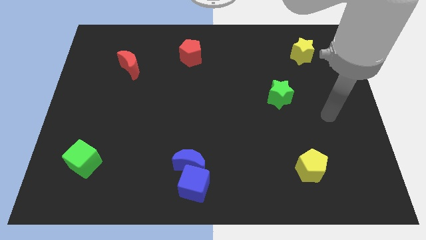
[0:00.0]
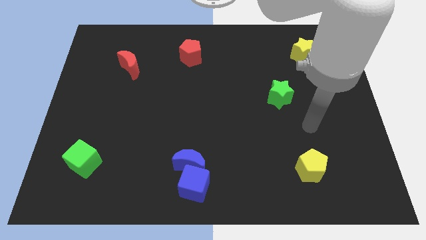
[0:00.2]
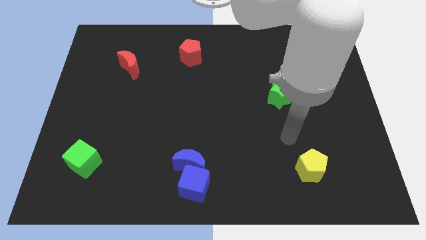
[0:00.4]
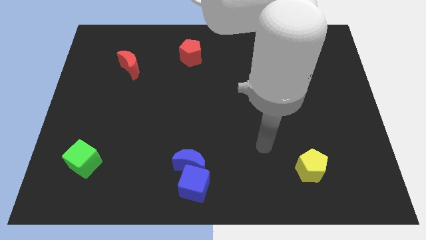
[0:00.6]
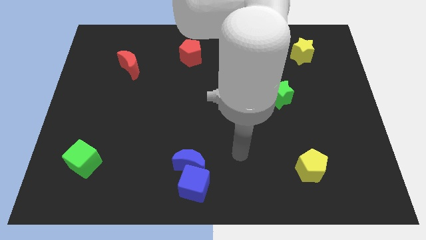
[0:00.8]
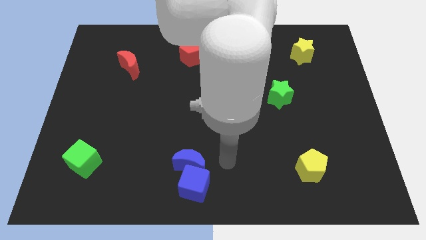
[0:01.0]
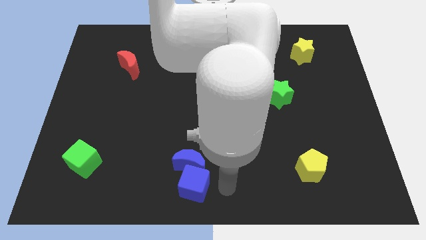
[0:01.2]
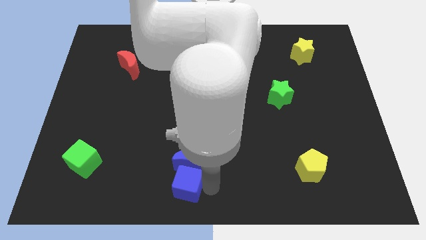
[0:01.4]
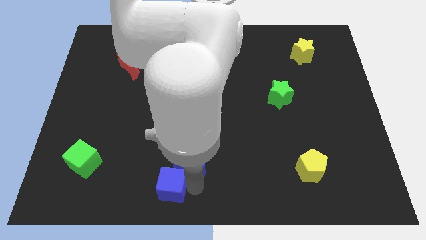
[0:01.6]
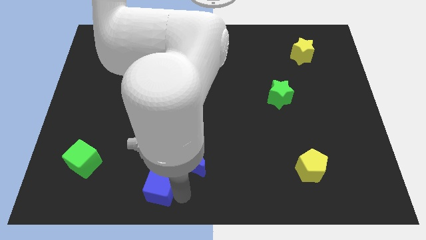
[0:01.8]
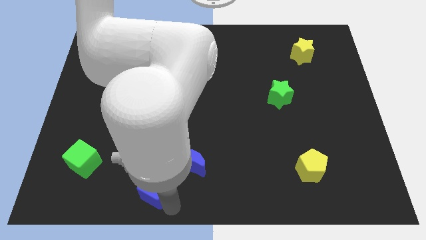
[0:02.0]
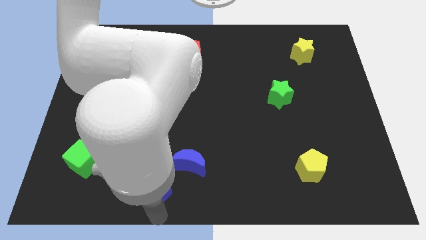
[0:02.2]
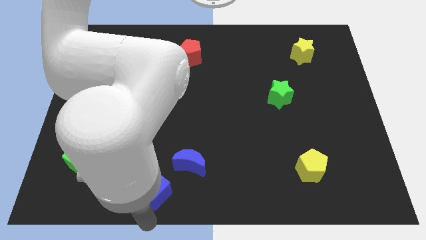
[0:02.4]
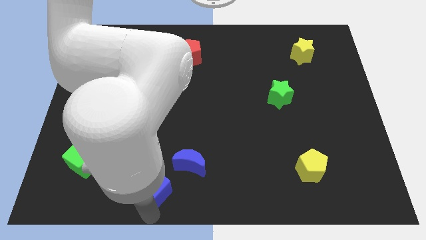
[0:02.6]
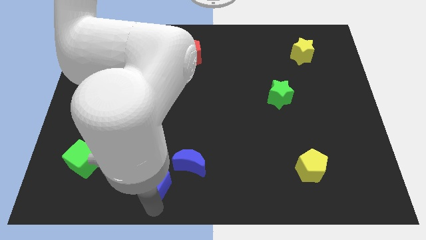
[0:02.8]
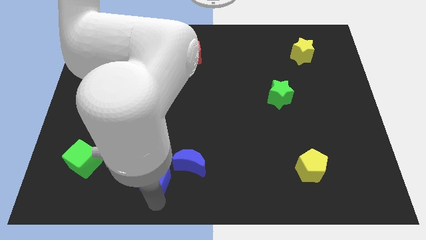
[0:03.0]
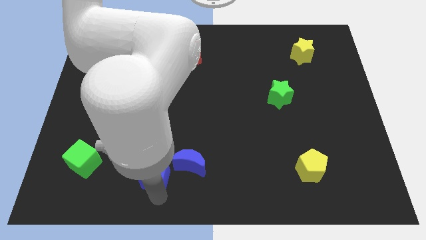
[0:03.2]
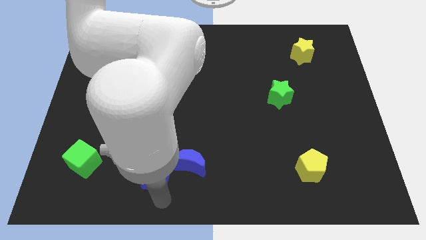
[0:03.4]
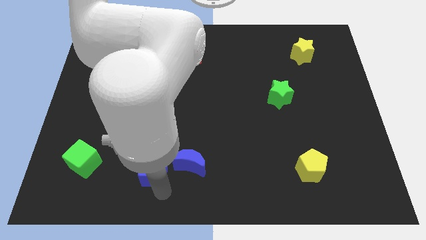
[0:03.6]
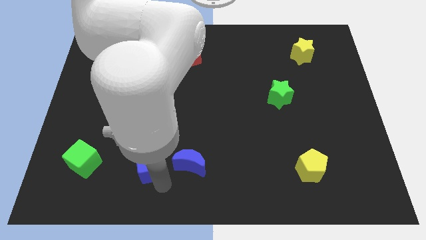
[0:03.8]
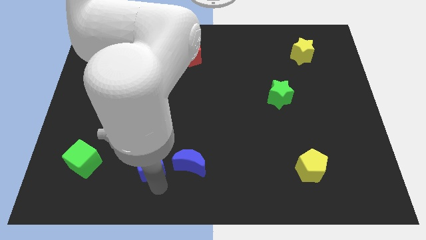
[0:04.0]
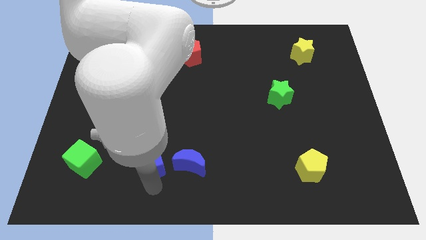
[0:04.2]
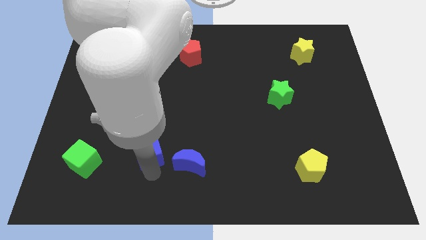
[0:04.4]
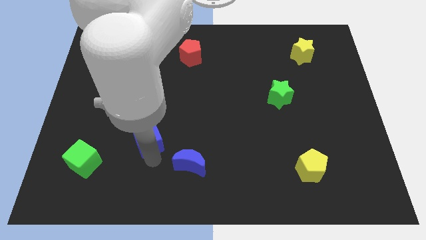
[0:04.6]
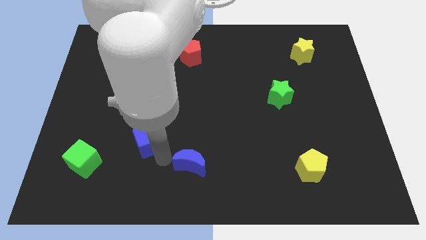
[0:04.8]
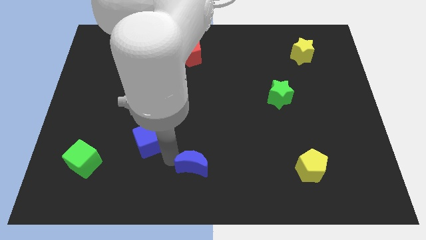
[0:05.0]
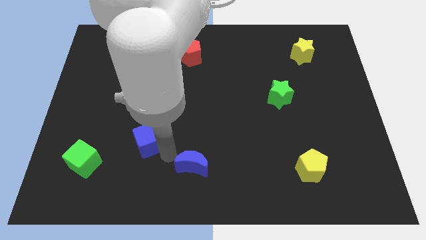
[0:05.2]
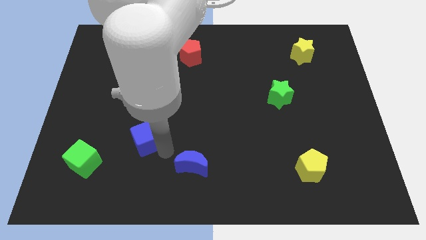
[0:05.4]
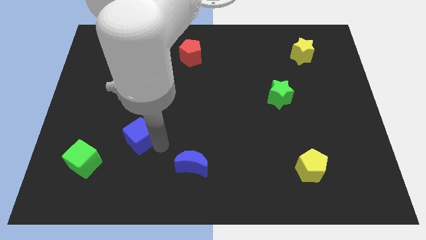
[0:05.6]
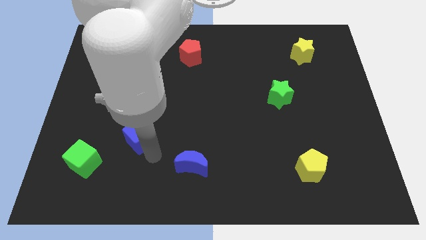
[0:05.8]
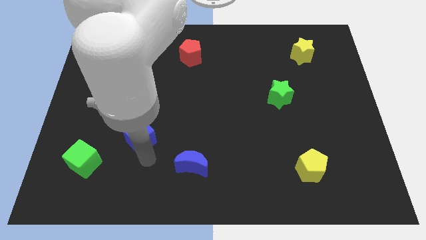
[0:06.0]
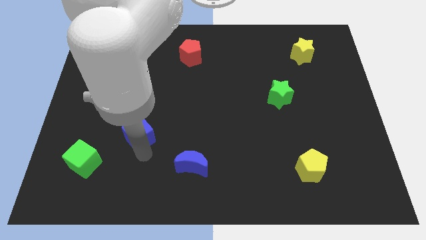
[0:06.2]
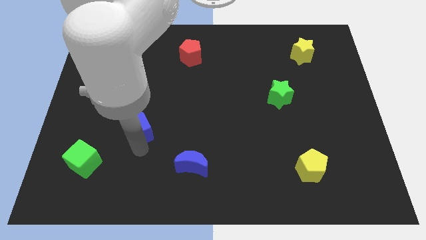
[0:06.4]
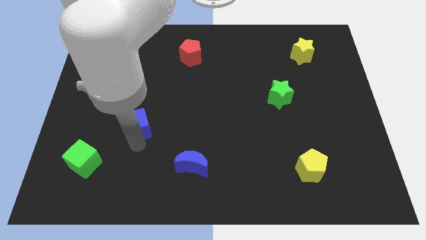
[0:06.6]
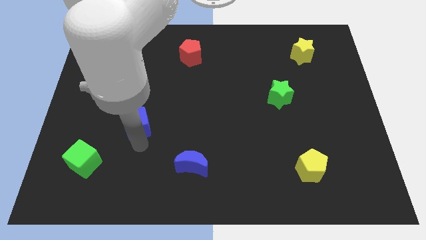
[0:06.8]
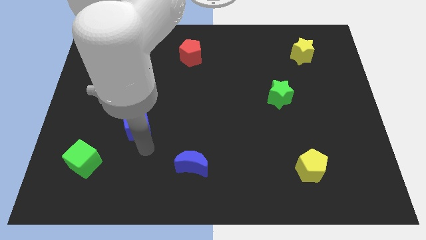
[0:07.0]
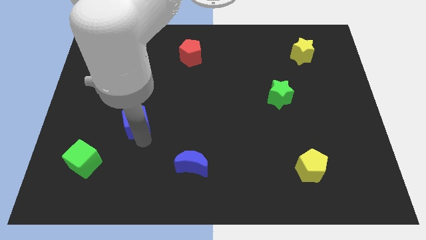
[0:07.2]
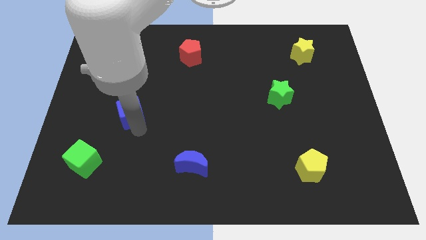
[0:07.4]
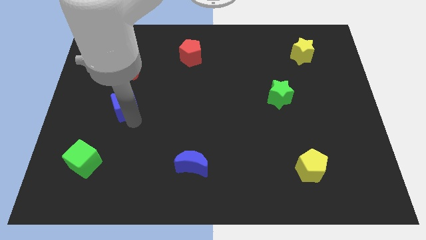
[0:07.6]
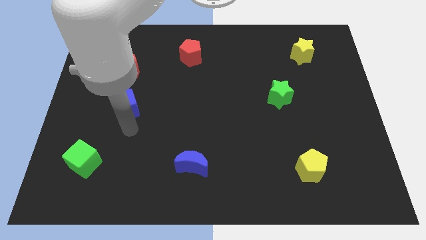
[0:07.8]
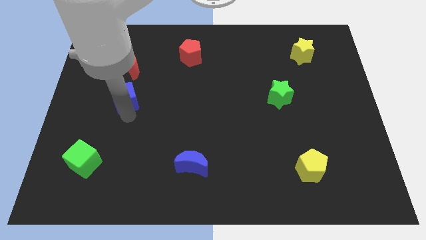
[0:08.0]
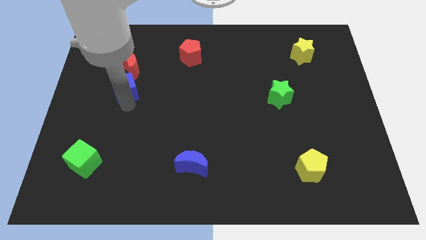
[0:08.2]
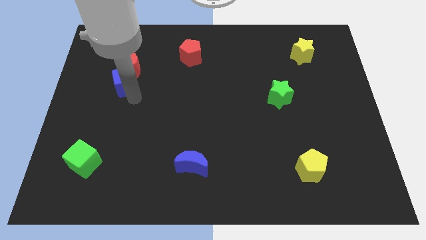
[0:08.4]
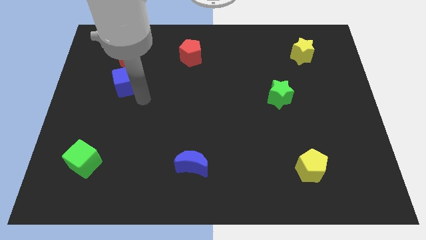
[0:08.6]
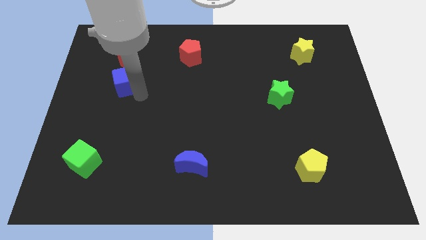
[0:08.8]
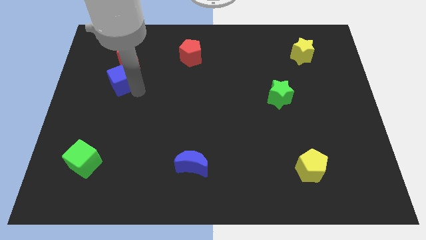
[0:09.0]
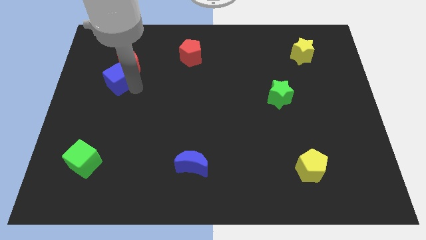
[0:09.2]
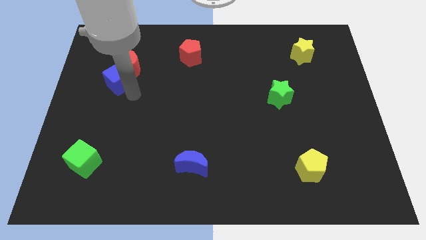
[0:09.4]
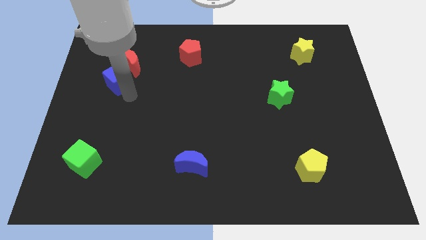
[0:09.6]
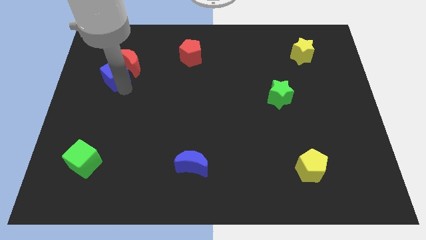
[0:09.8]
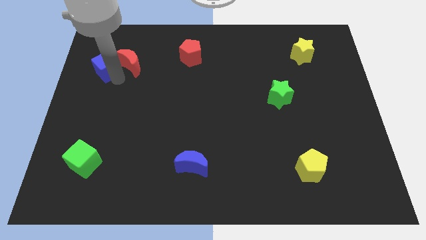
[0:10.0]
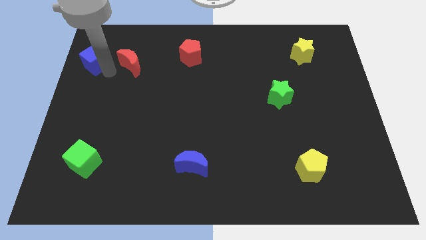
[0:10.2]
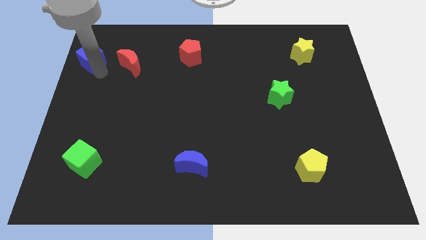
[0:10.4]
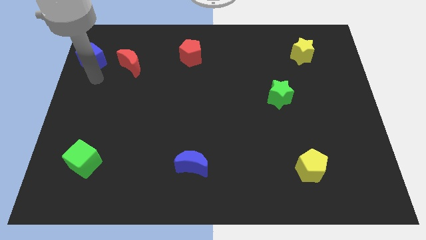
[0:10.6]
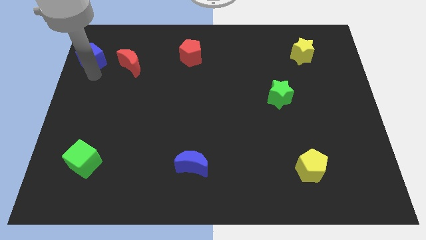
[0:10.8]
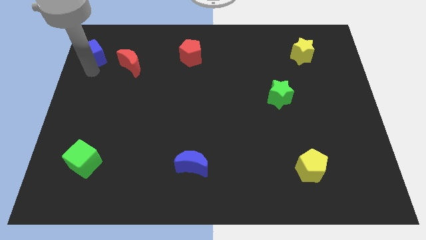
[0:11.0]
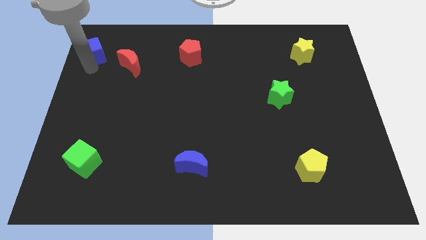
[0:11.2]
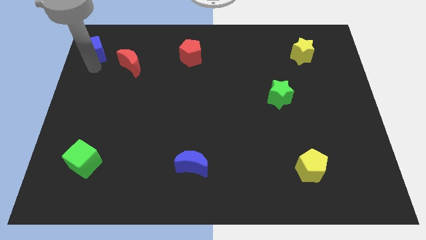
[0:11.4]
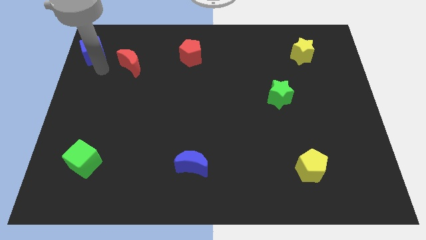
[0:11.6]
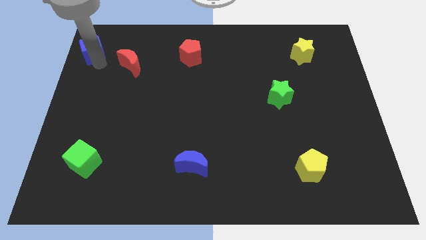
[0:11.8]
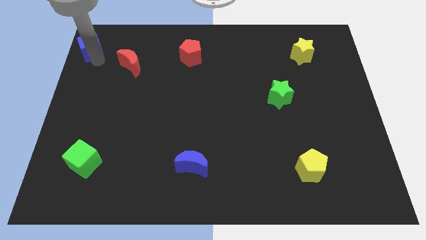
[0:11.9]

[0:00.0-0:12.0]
slide the blue cube to the top left
